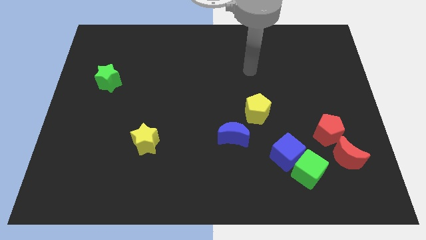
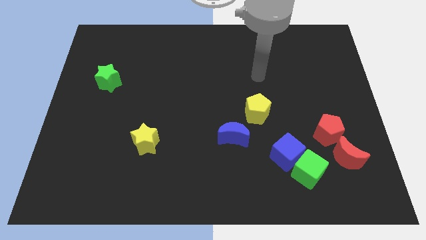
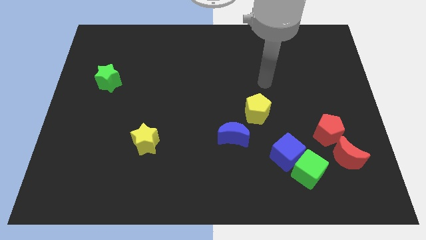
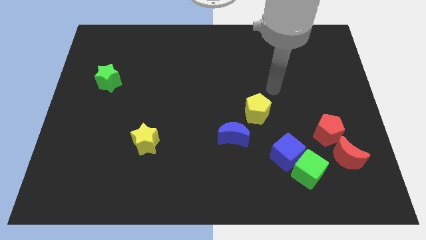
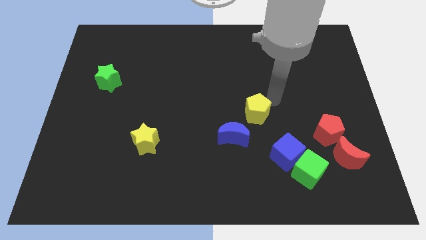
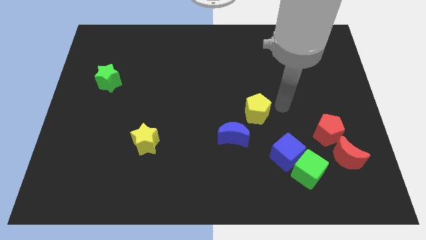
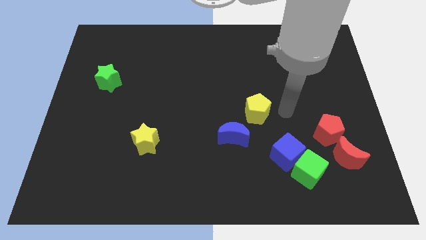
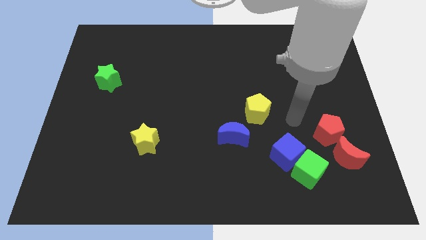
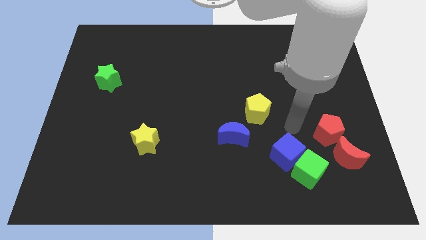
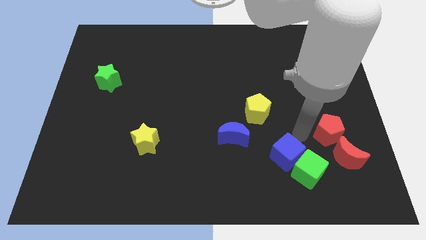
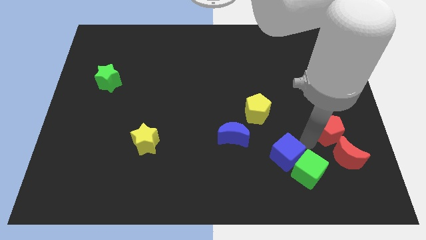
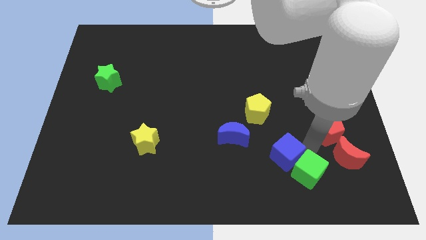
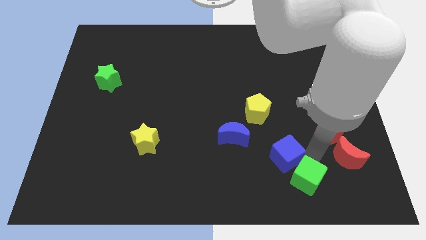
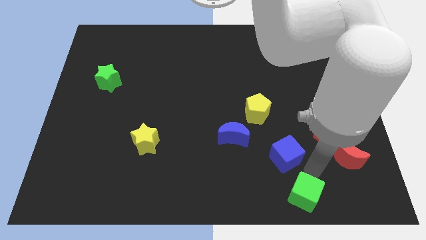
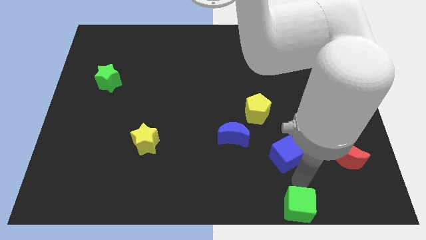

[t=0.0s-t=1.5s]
pull the blue cube apart from the green cube

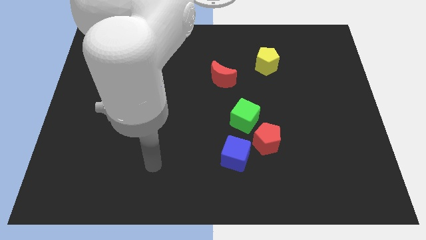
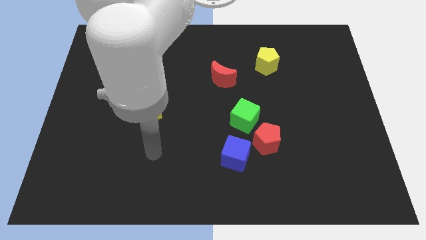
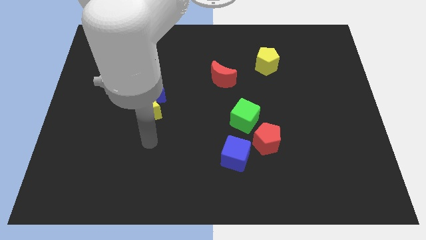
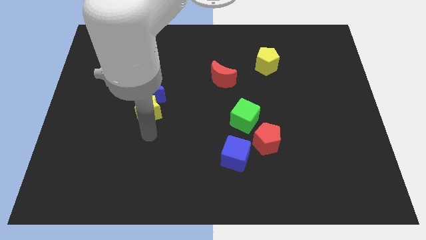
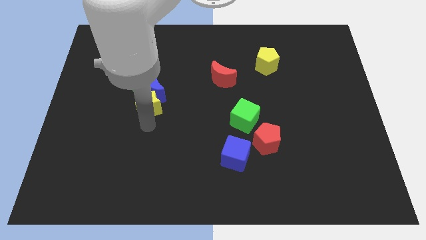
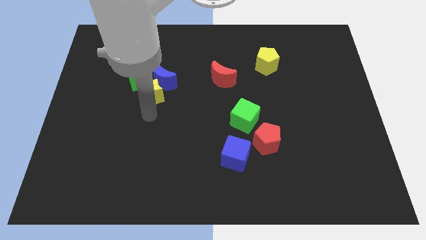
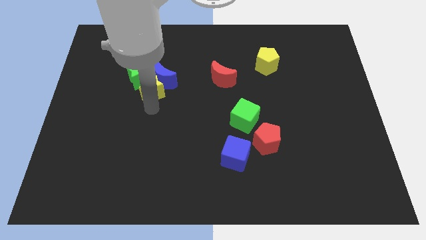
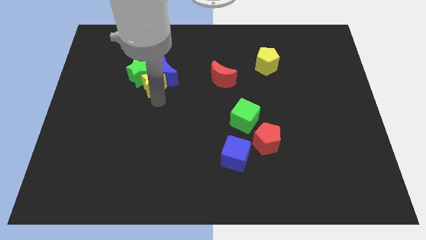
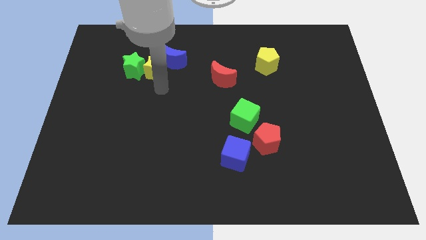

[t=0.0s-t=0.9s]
pull the green star apart from the blue moon

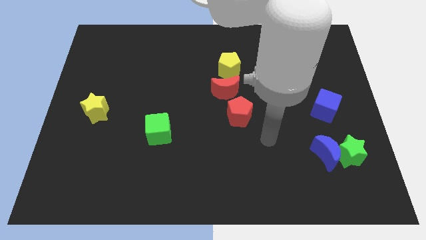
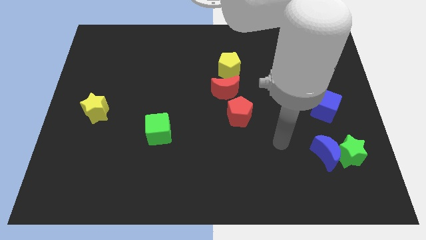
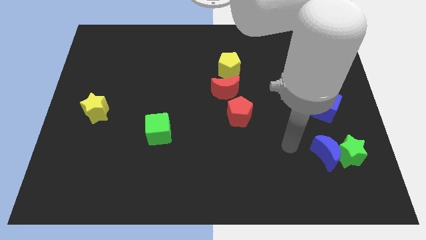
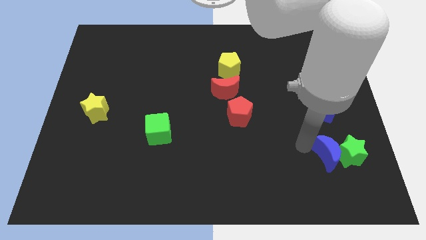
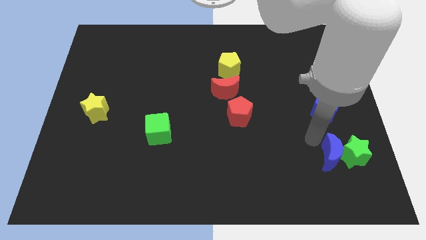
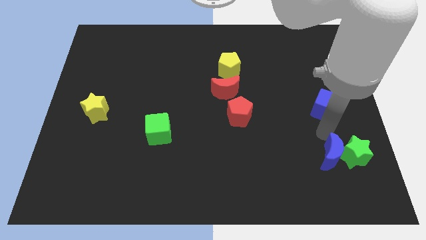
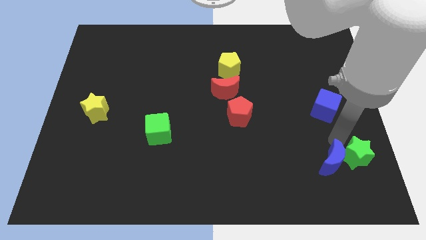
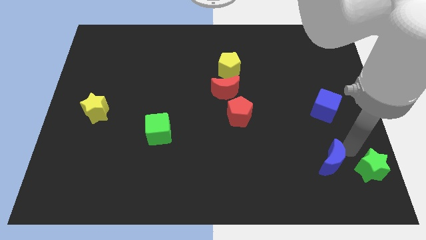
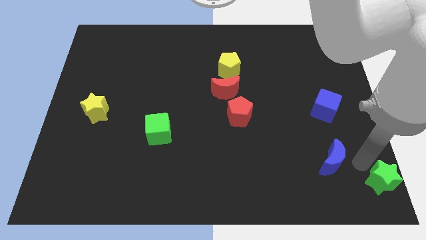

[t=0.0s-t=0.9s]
move the blue moon away from the green star

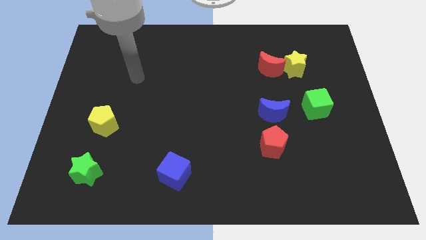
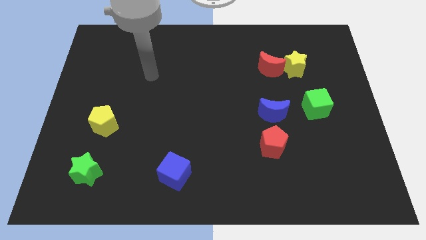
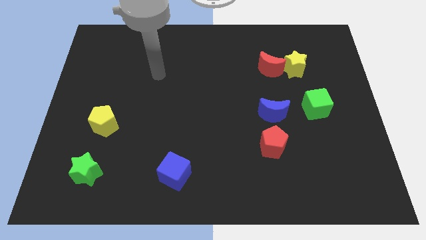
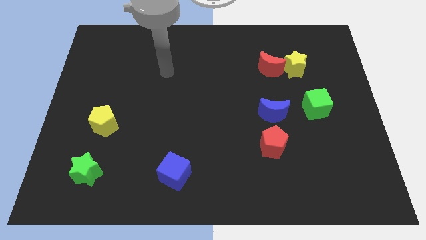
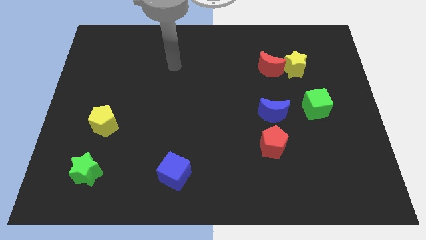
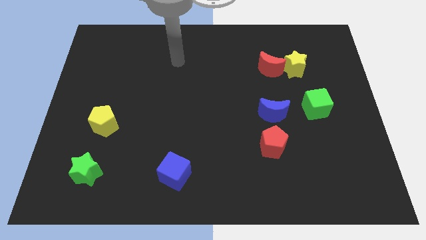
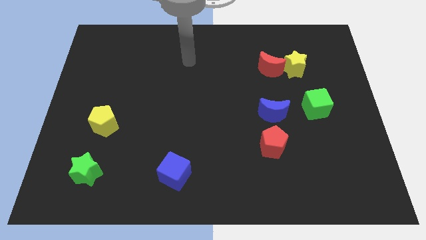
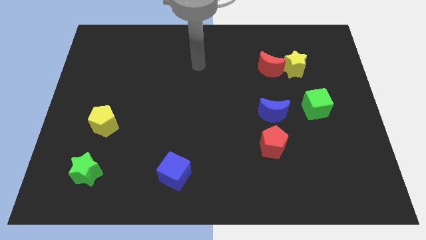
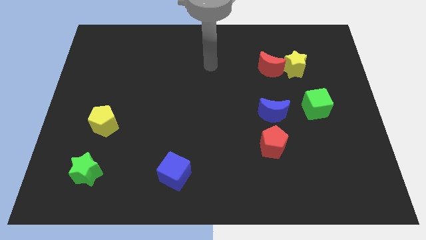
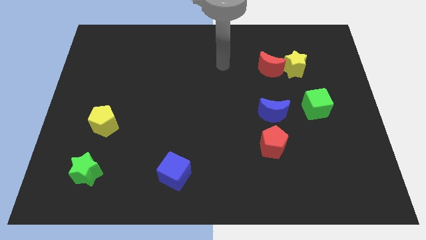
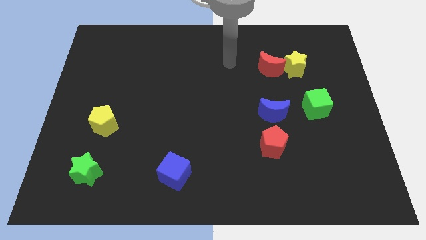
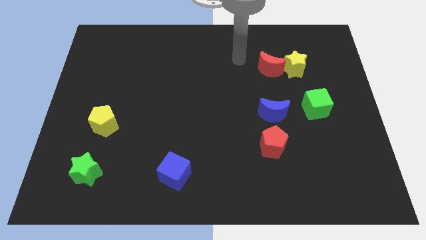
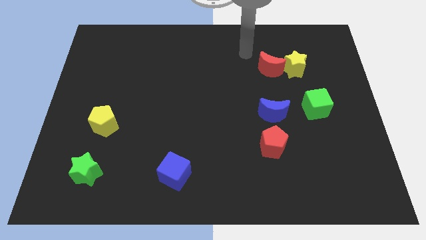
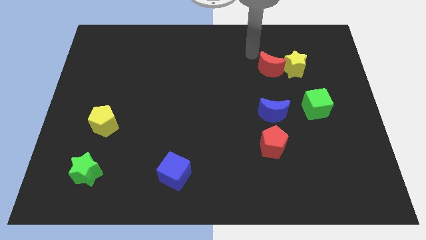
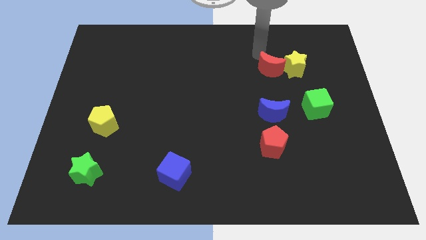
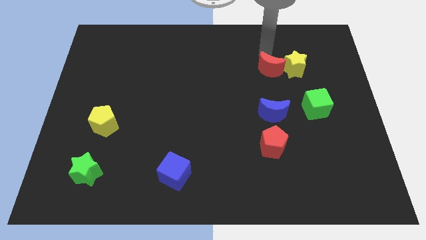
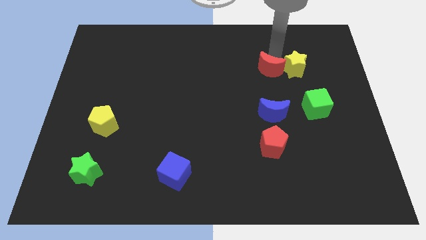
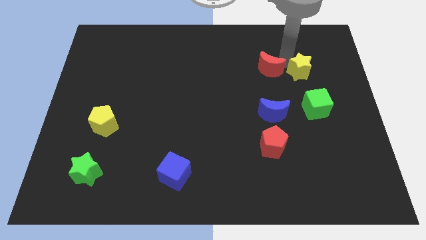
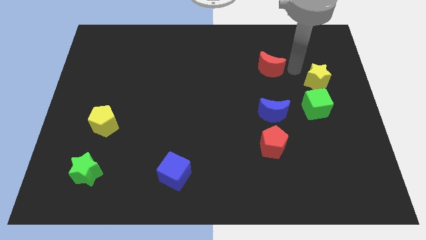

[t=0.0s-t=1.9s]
separate the red moon from the yellow star

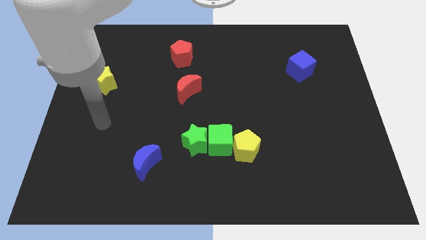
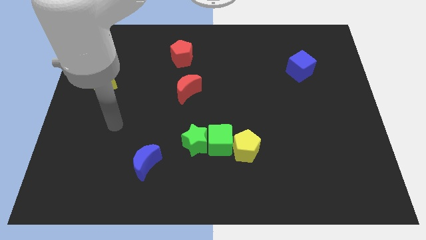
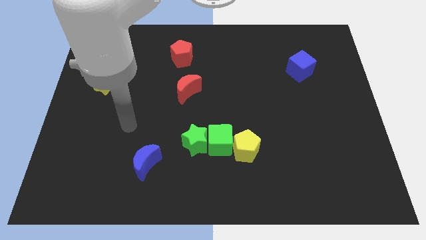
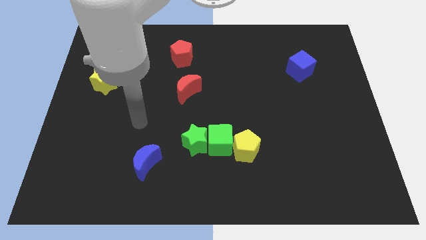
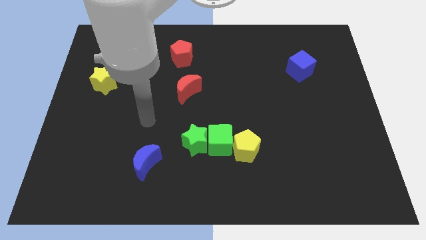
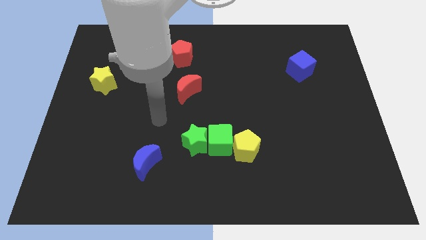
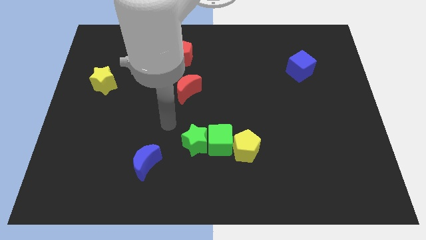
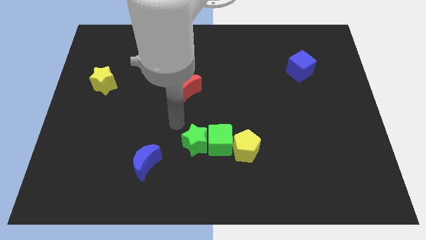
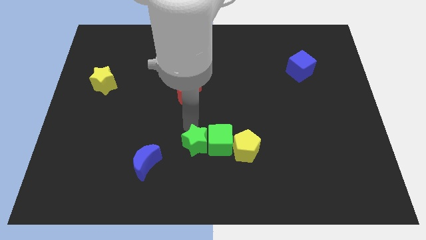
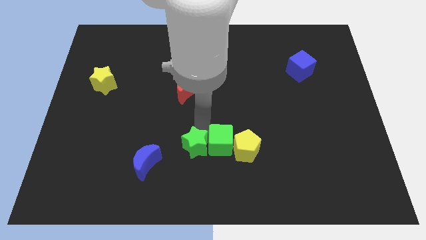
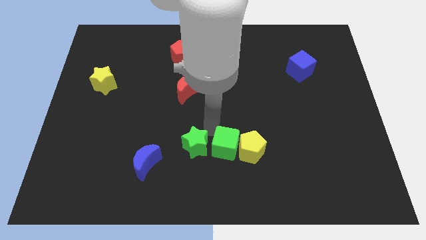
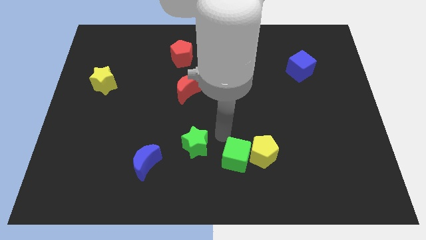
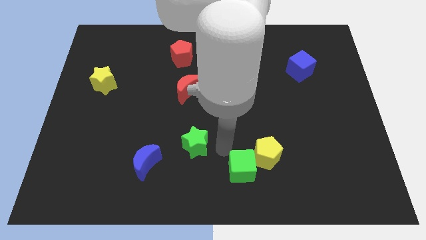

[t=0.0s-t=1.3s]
separate the green star from the green cube

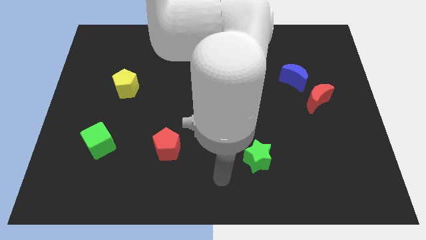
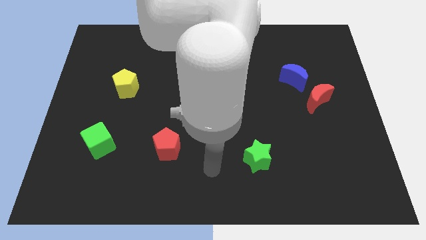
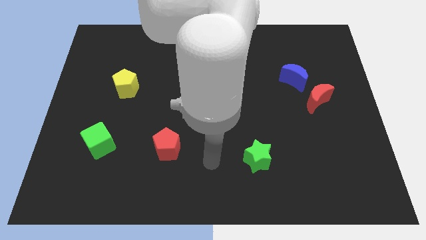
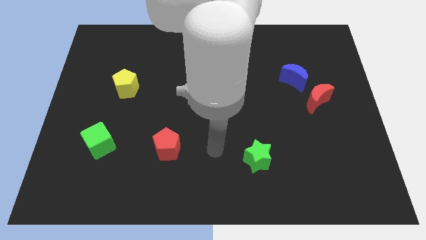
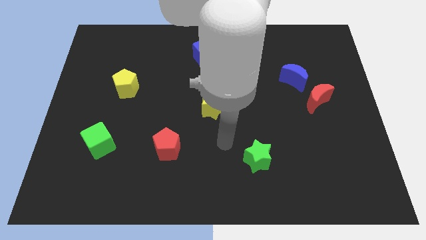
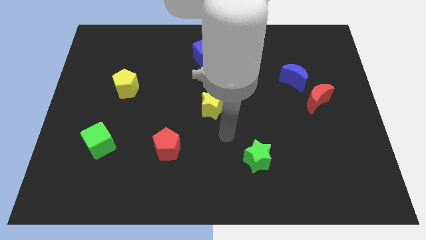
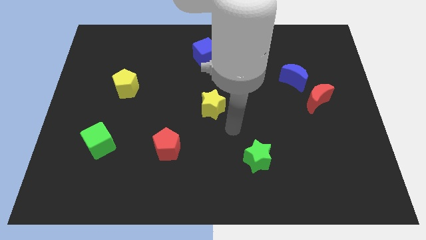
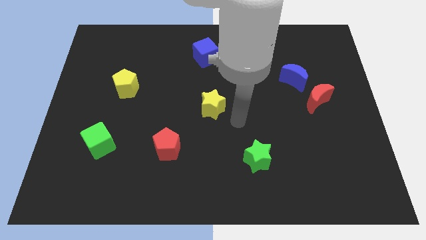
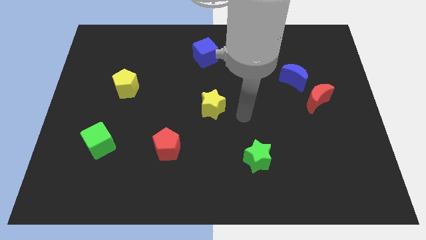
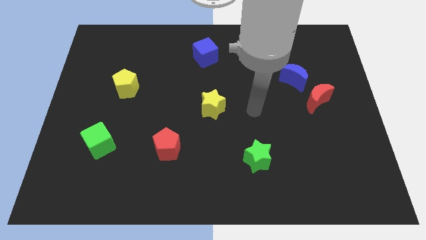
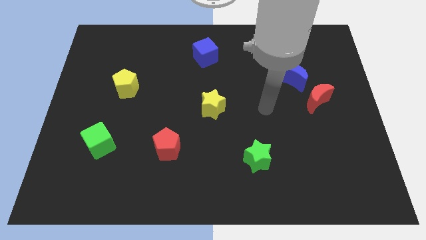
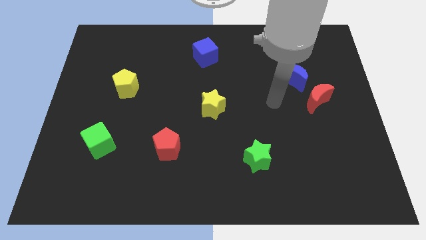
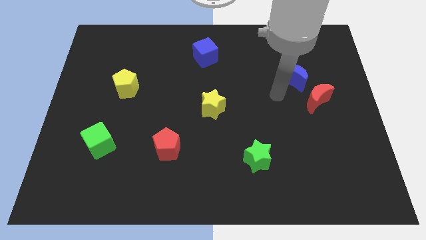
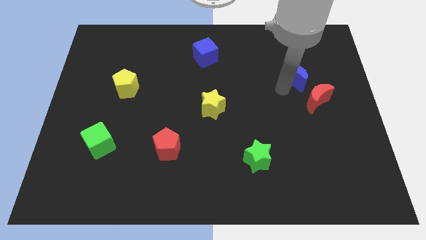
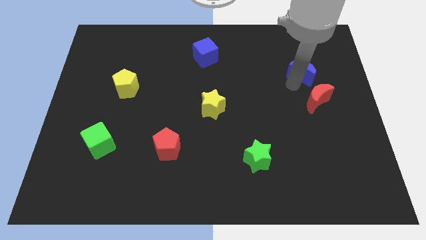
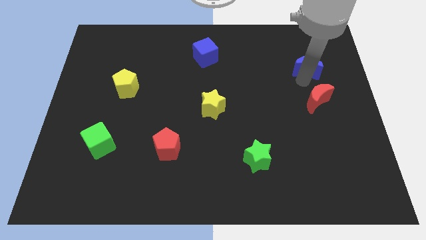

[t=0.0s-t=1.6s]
pull the red moon apart from the blue moon

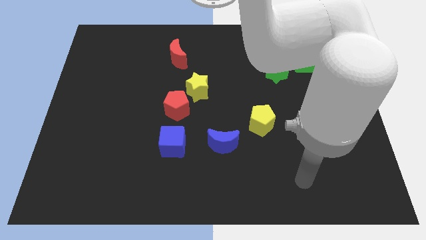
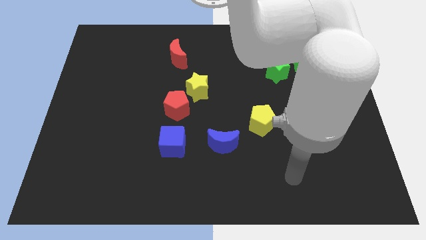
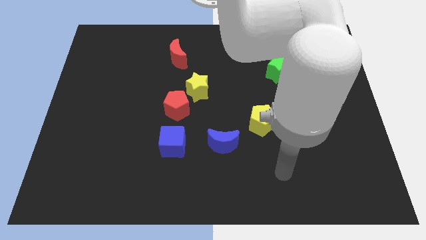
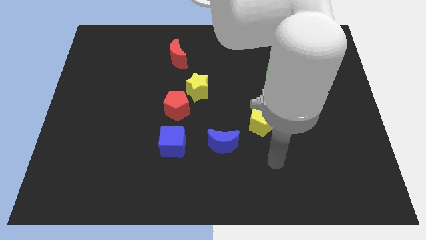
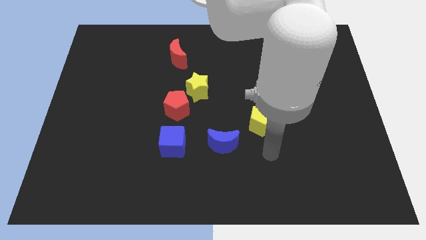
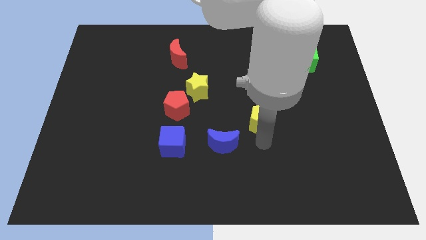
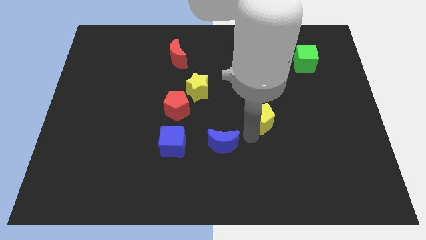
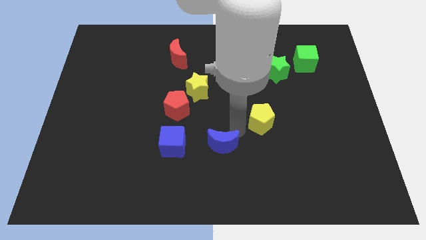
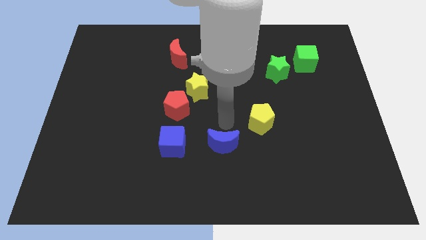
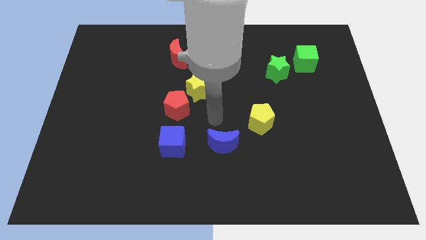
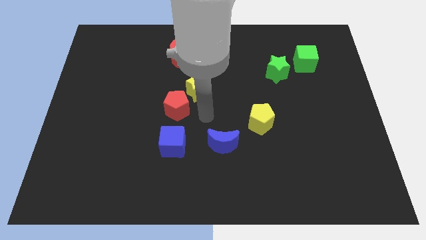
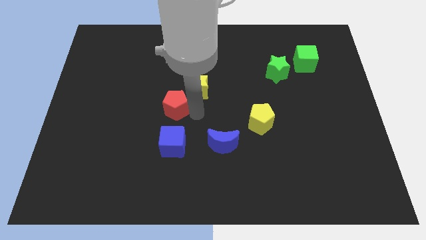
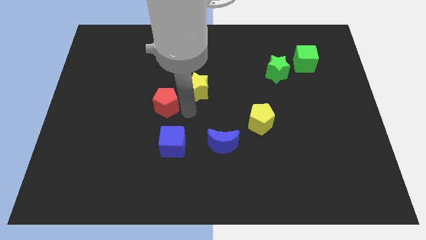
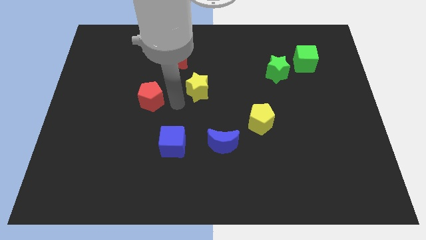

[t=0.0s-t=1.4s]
separate the yellow star from the red pentagon
